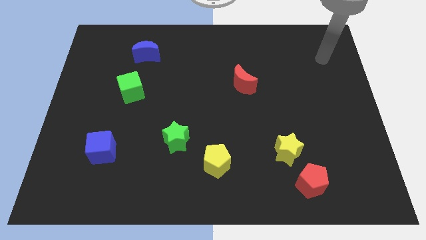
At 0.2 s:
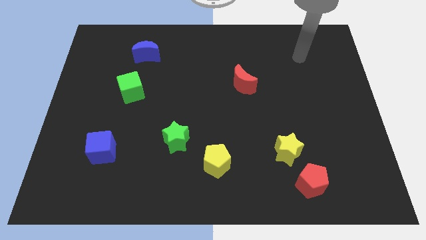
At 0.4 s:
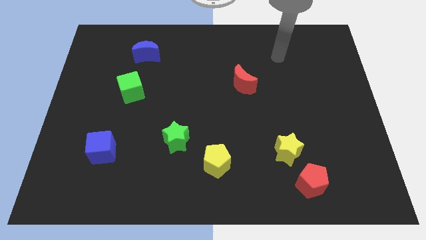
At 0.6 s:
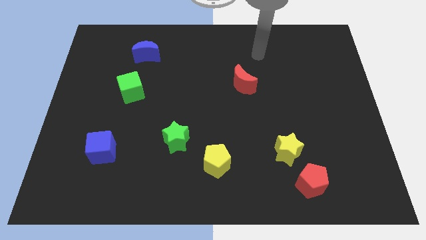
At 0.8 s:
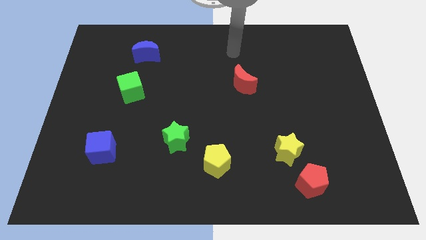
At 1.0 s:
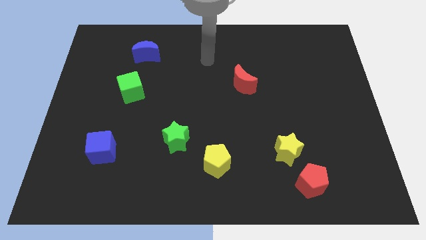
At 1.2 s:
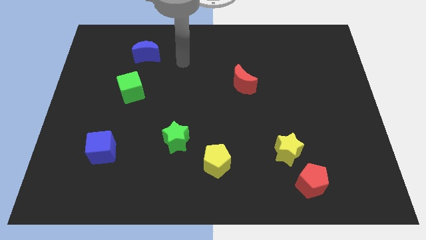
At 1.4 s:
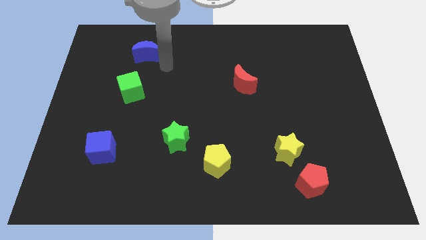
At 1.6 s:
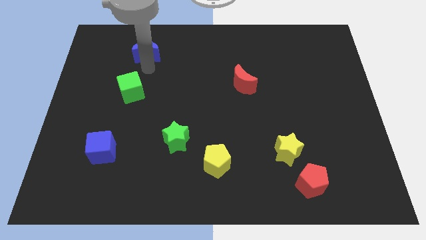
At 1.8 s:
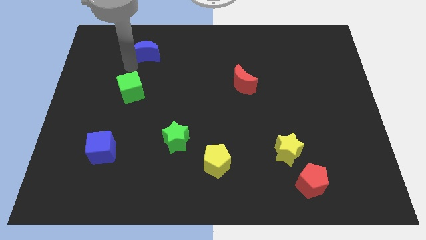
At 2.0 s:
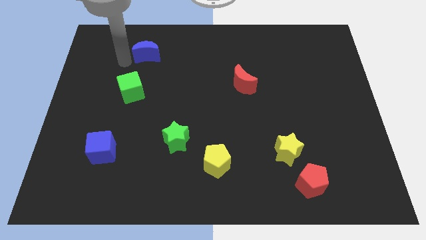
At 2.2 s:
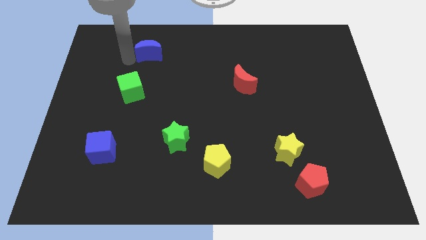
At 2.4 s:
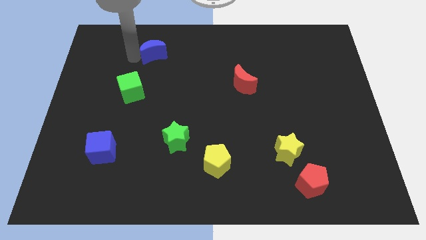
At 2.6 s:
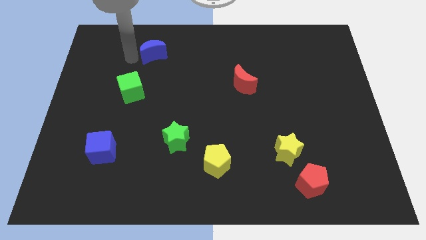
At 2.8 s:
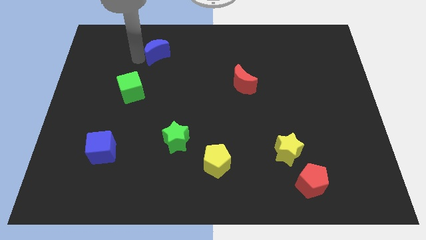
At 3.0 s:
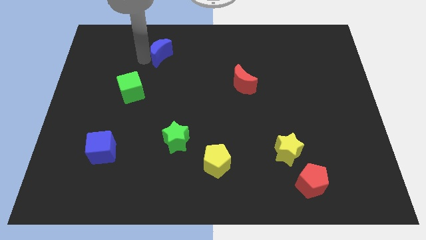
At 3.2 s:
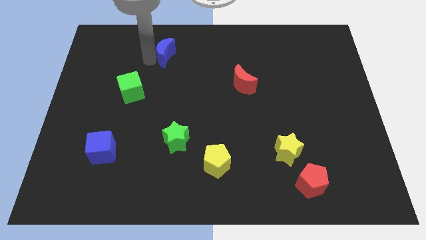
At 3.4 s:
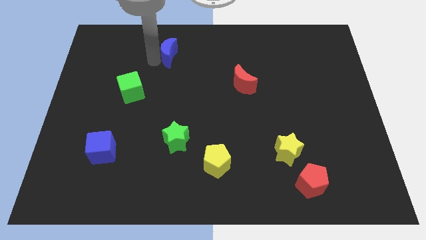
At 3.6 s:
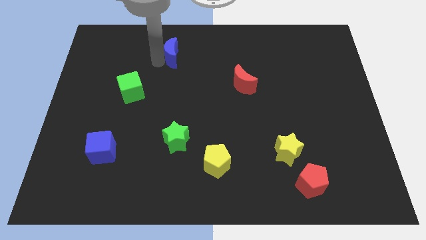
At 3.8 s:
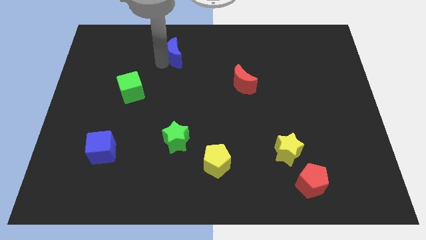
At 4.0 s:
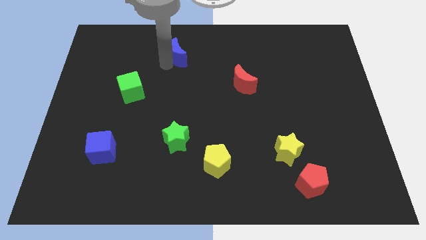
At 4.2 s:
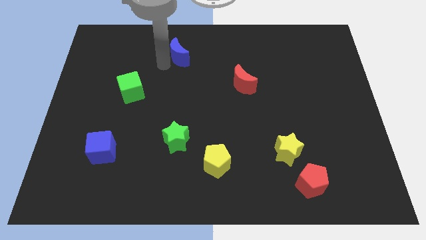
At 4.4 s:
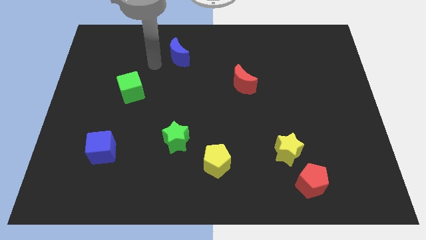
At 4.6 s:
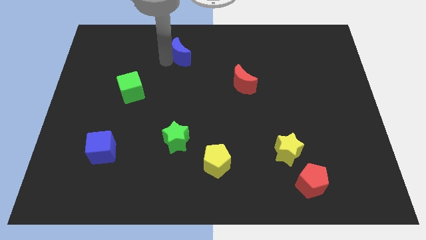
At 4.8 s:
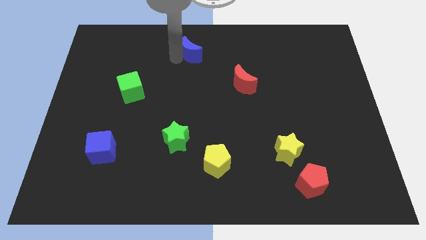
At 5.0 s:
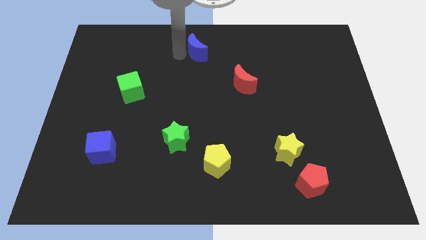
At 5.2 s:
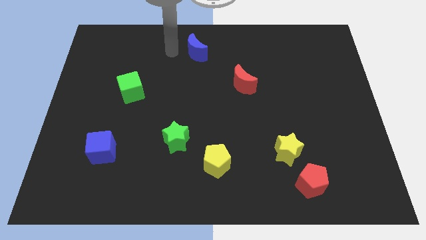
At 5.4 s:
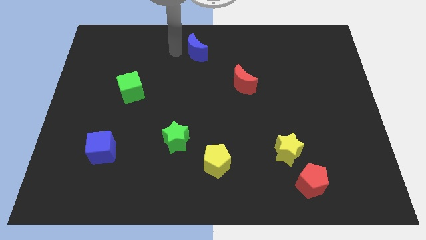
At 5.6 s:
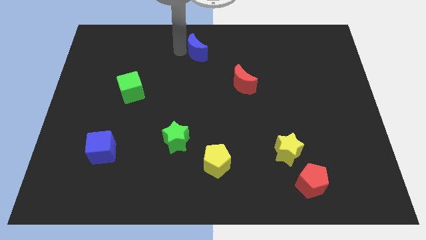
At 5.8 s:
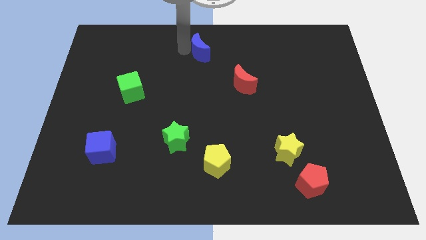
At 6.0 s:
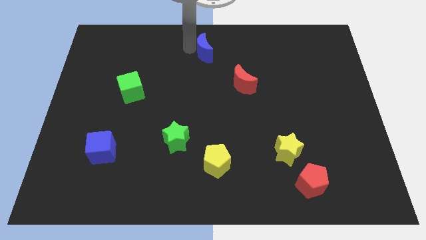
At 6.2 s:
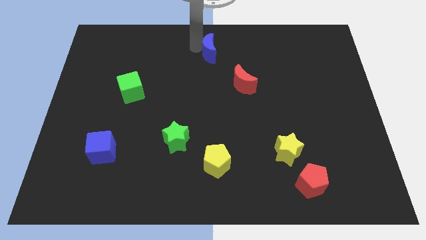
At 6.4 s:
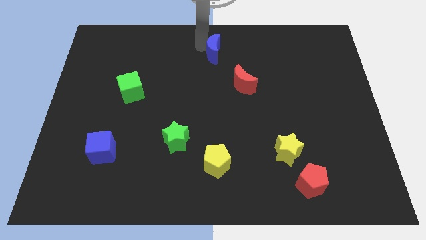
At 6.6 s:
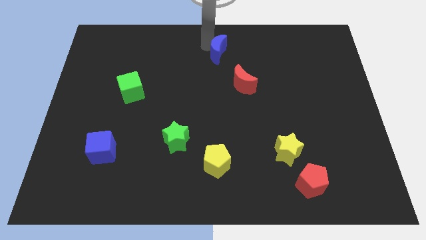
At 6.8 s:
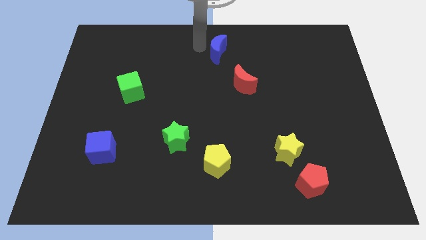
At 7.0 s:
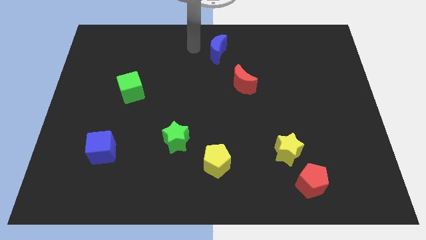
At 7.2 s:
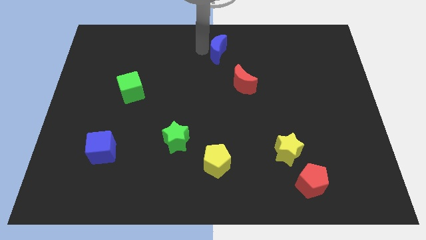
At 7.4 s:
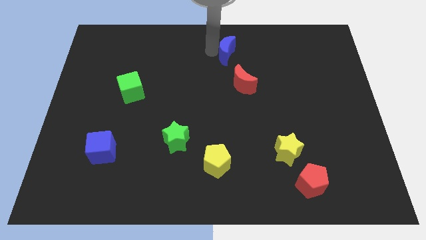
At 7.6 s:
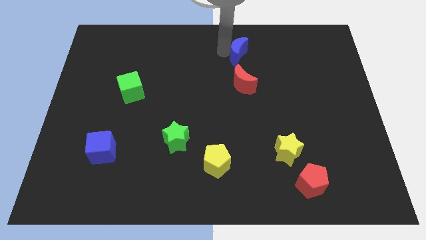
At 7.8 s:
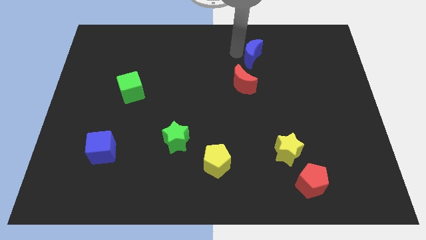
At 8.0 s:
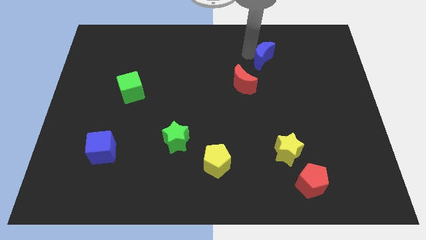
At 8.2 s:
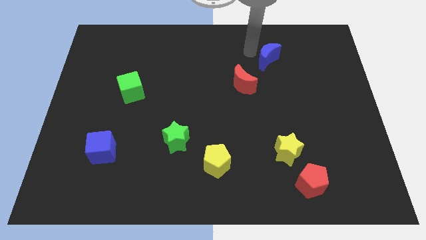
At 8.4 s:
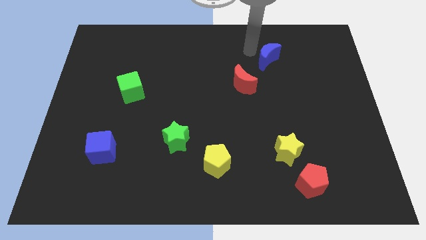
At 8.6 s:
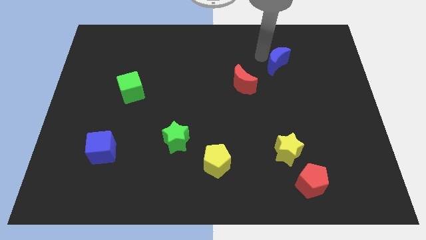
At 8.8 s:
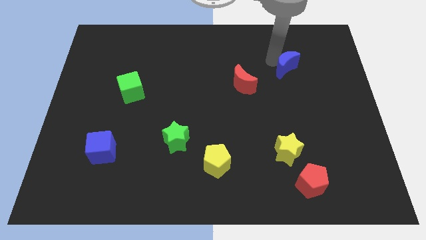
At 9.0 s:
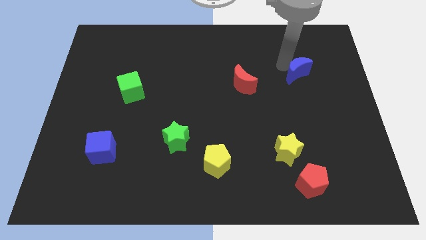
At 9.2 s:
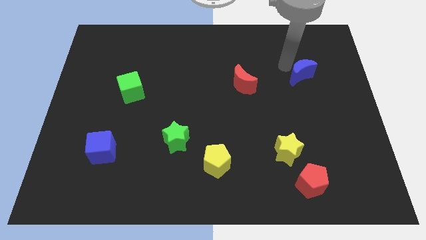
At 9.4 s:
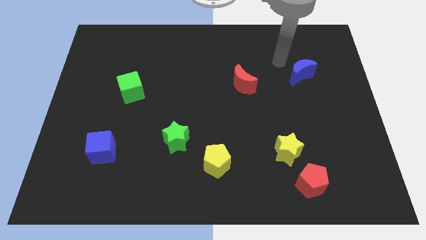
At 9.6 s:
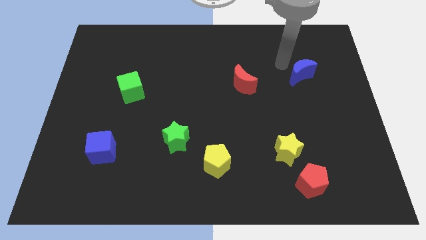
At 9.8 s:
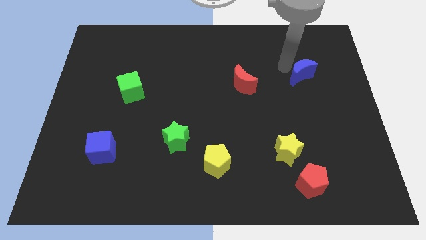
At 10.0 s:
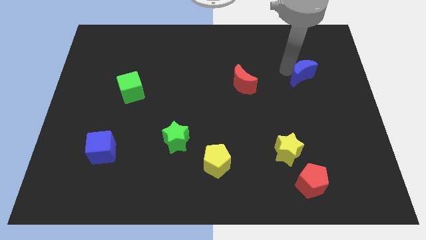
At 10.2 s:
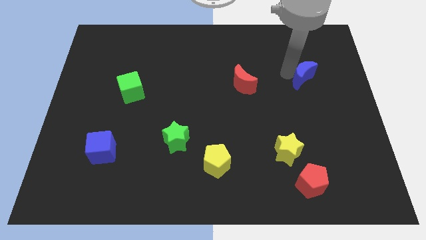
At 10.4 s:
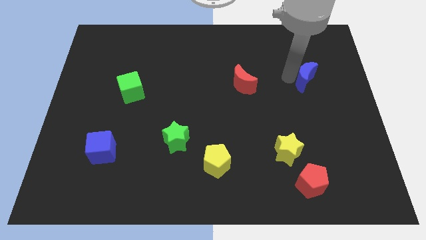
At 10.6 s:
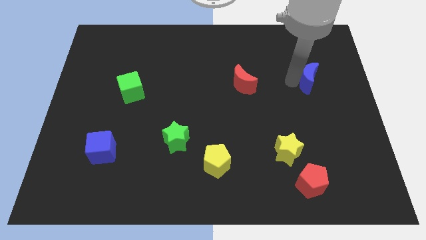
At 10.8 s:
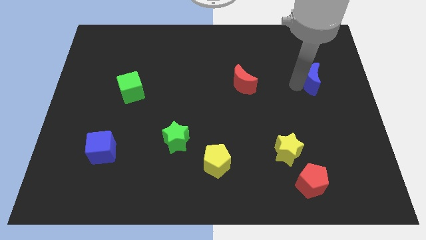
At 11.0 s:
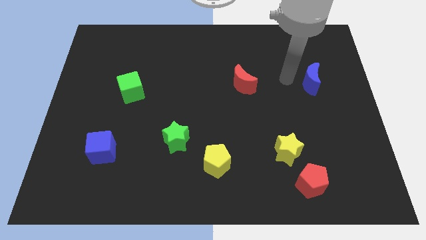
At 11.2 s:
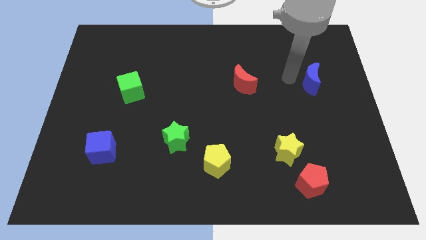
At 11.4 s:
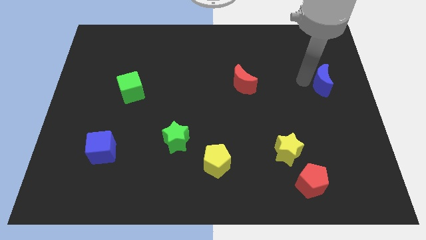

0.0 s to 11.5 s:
push the blue moon to the center right

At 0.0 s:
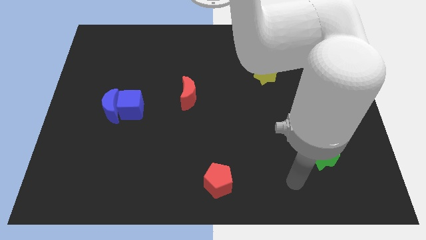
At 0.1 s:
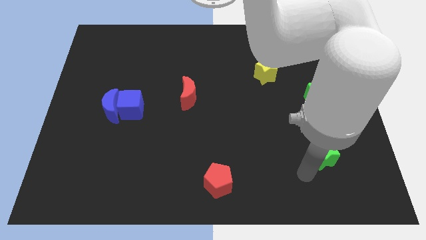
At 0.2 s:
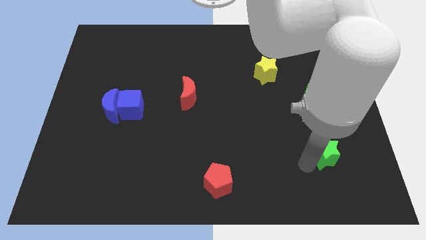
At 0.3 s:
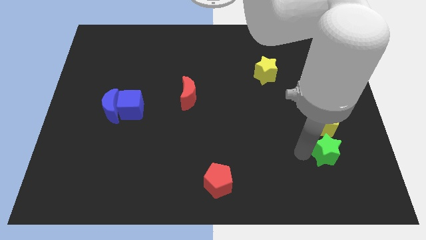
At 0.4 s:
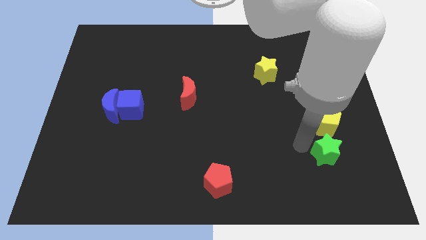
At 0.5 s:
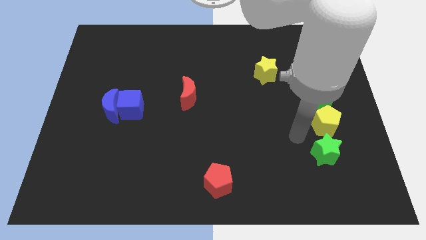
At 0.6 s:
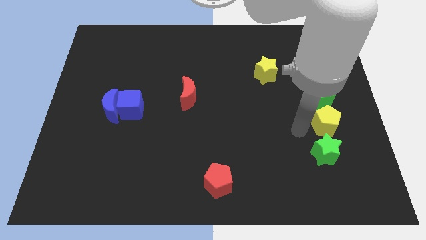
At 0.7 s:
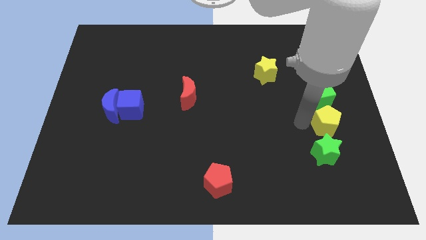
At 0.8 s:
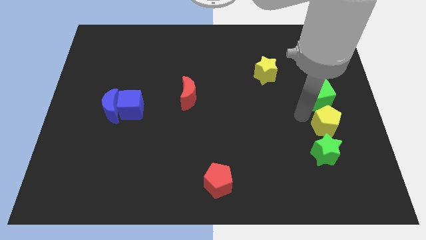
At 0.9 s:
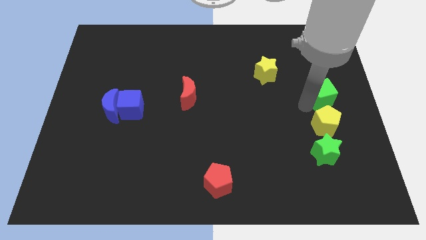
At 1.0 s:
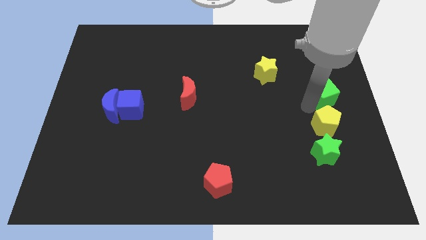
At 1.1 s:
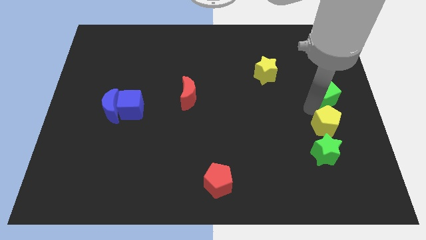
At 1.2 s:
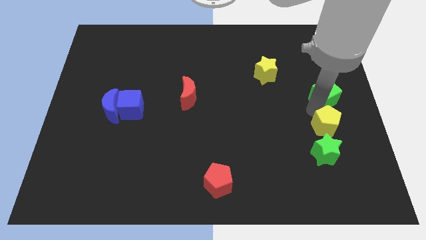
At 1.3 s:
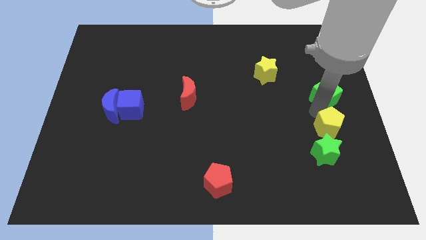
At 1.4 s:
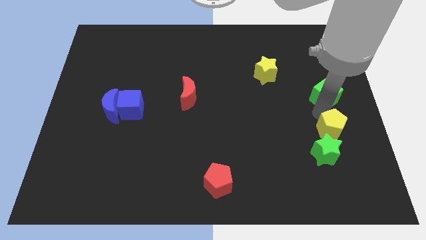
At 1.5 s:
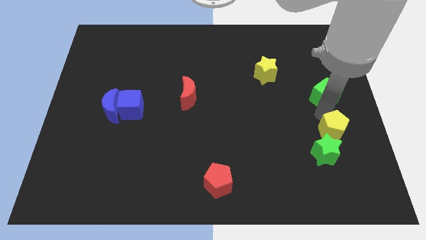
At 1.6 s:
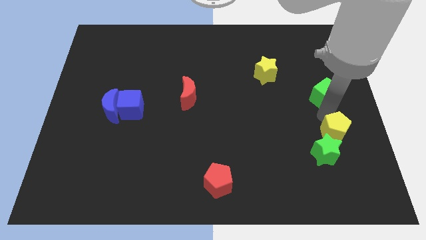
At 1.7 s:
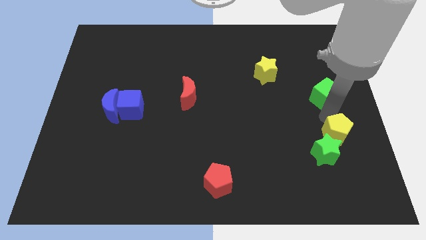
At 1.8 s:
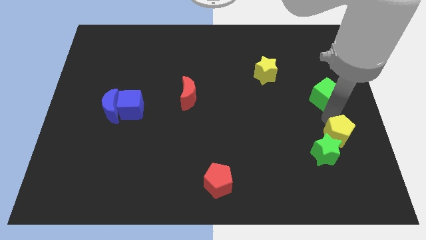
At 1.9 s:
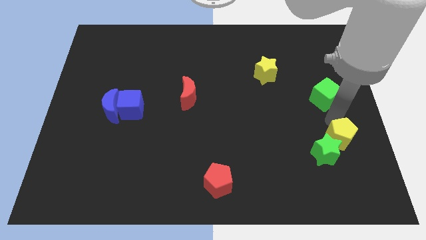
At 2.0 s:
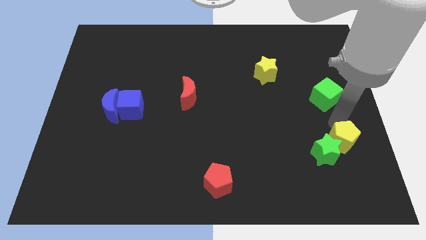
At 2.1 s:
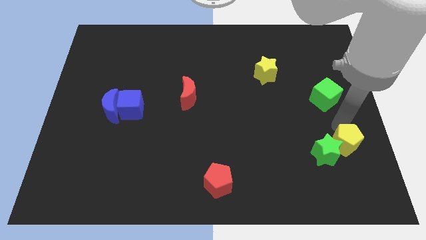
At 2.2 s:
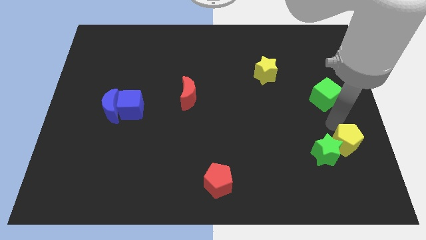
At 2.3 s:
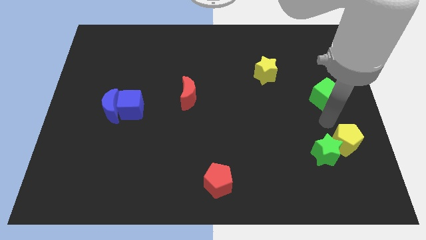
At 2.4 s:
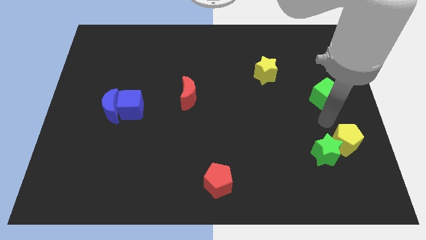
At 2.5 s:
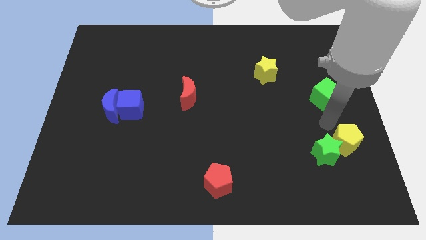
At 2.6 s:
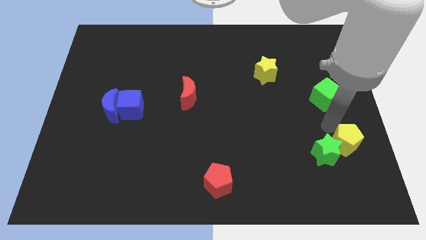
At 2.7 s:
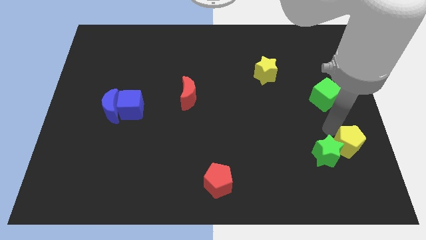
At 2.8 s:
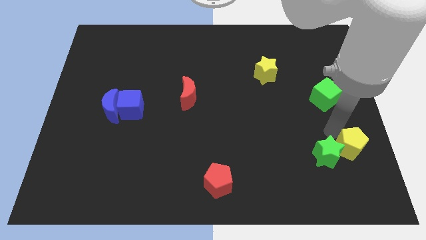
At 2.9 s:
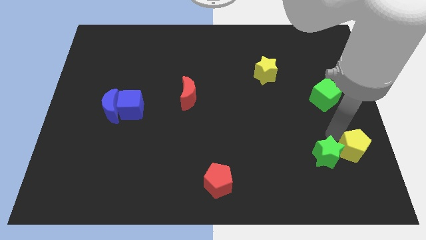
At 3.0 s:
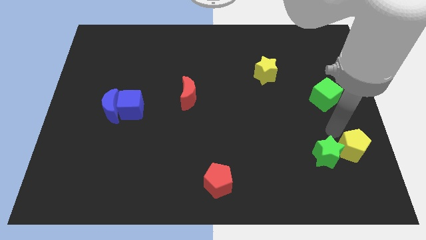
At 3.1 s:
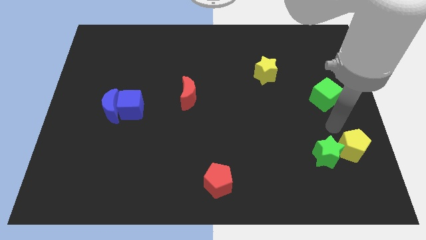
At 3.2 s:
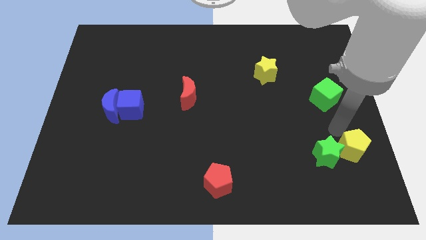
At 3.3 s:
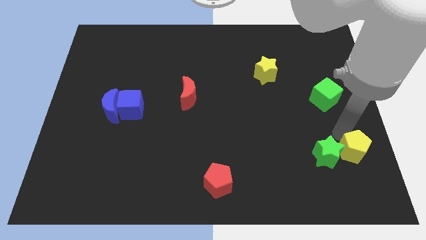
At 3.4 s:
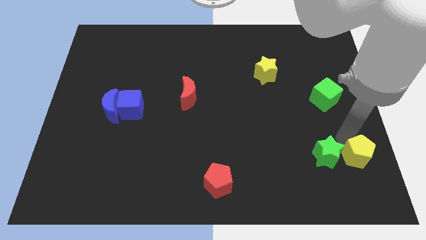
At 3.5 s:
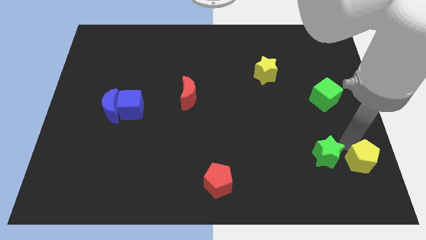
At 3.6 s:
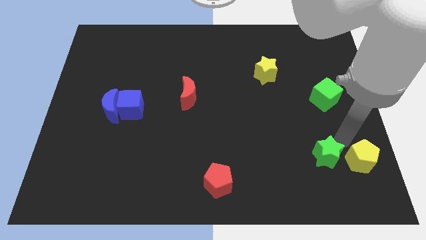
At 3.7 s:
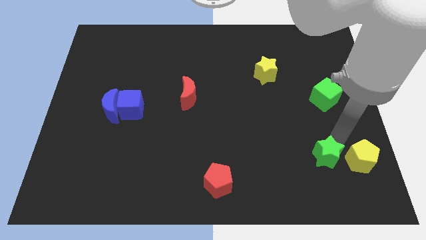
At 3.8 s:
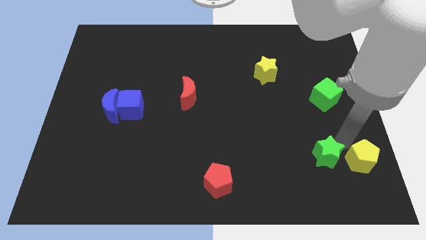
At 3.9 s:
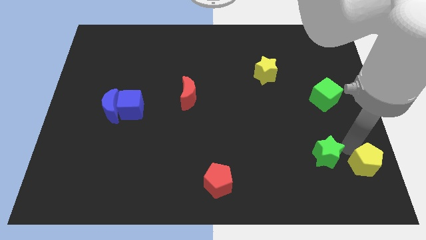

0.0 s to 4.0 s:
move the yellow pentagon to the bottom right corner
